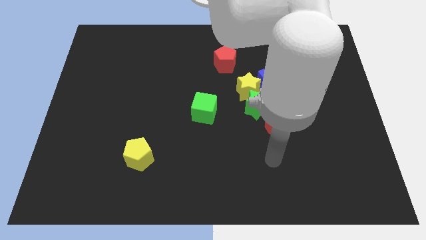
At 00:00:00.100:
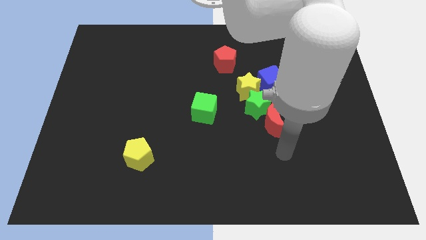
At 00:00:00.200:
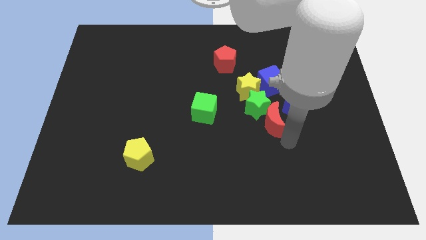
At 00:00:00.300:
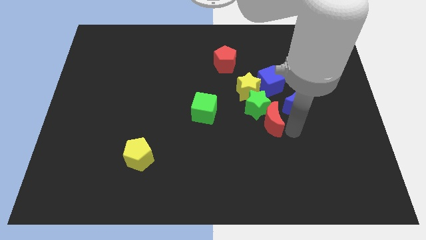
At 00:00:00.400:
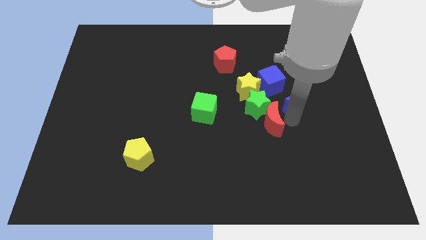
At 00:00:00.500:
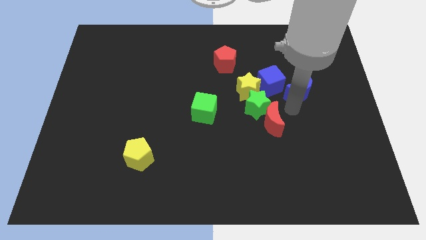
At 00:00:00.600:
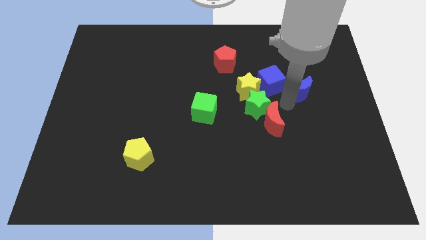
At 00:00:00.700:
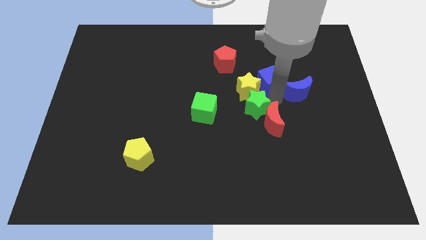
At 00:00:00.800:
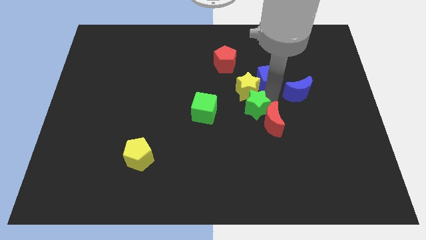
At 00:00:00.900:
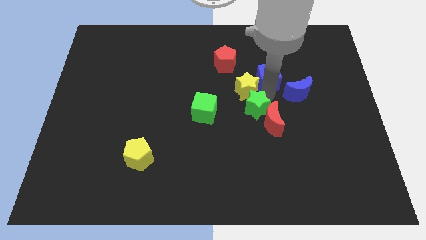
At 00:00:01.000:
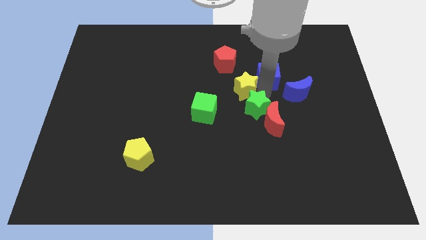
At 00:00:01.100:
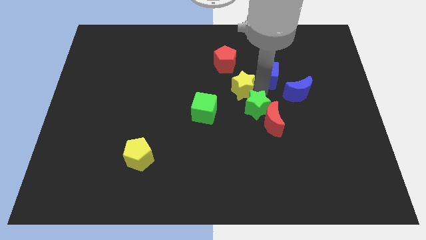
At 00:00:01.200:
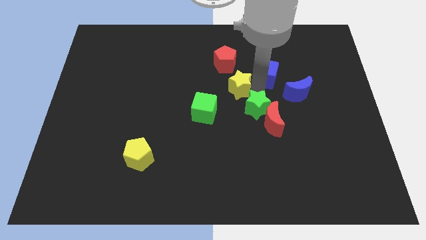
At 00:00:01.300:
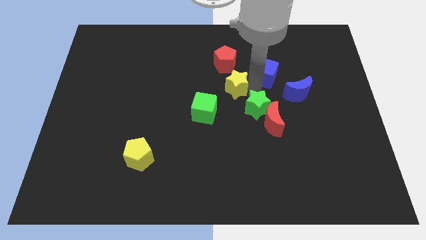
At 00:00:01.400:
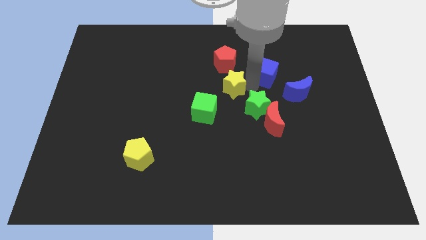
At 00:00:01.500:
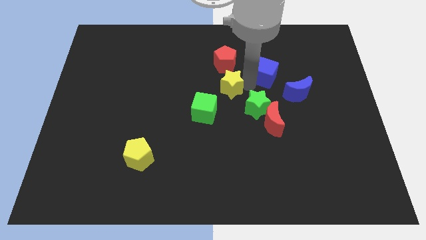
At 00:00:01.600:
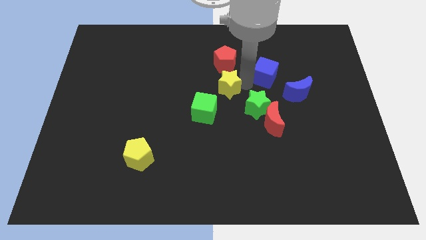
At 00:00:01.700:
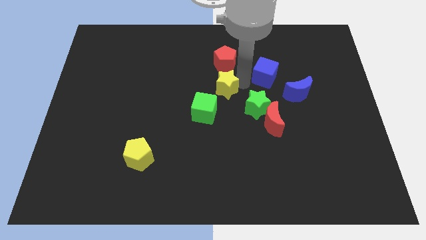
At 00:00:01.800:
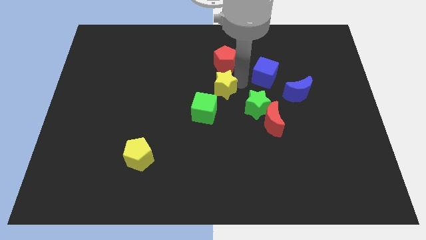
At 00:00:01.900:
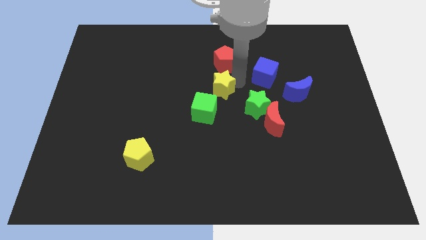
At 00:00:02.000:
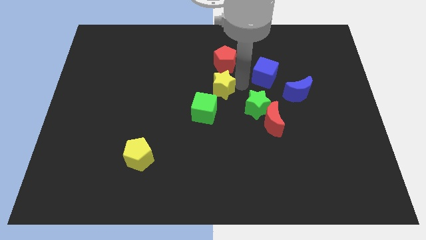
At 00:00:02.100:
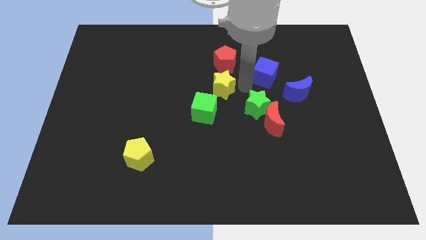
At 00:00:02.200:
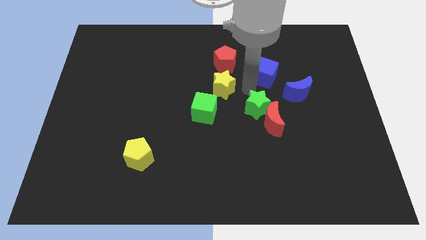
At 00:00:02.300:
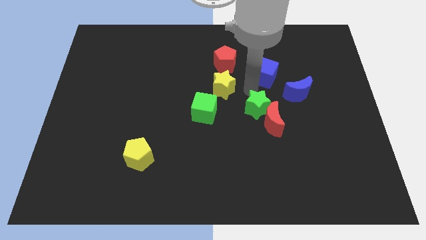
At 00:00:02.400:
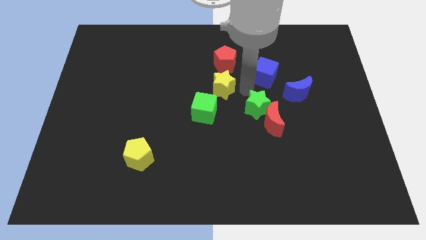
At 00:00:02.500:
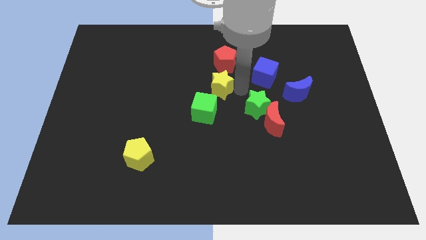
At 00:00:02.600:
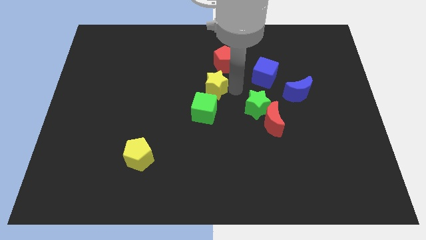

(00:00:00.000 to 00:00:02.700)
separate the yellow star from the green star and blue cube

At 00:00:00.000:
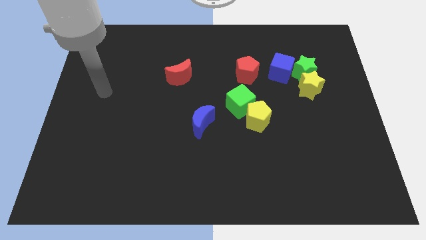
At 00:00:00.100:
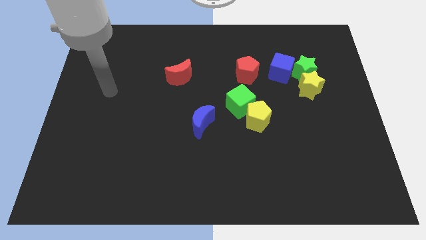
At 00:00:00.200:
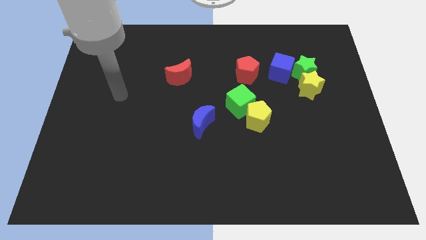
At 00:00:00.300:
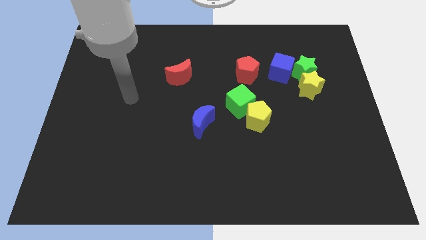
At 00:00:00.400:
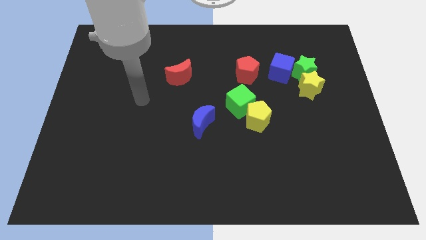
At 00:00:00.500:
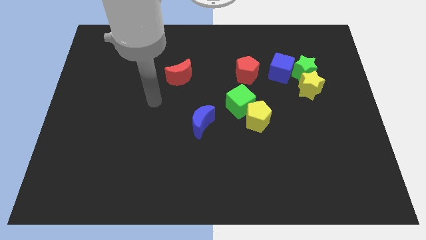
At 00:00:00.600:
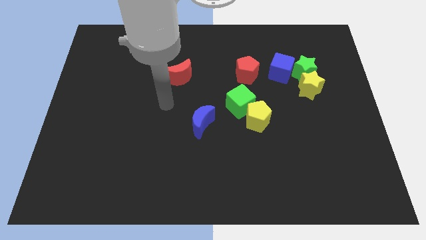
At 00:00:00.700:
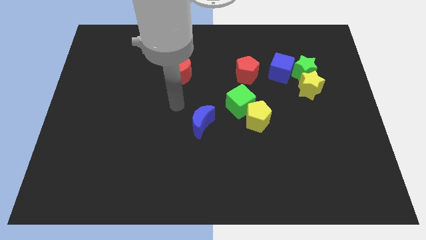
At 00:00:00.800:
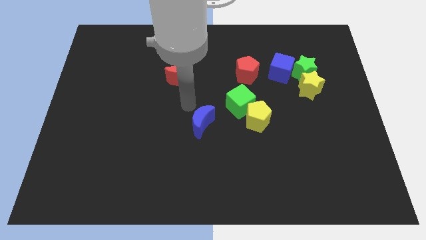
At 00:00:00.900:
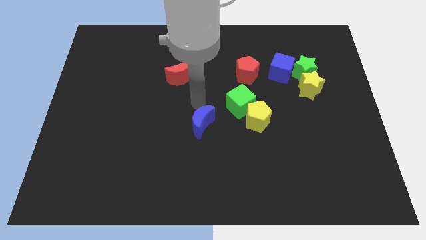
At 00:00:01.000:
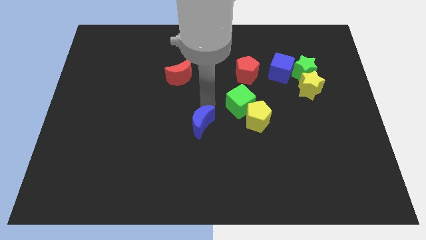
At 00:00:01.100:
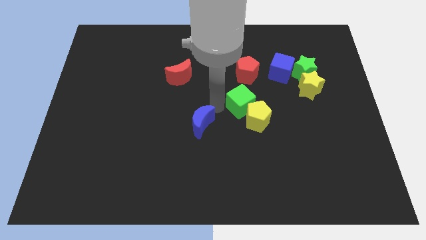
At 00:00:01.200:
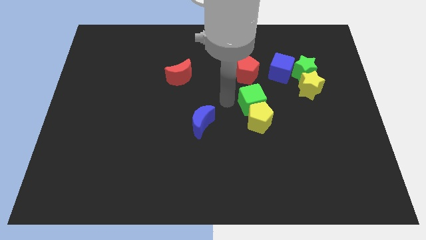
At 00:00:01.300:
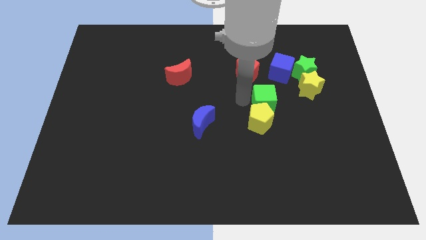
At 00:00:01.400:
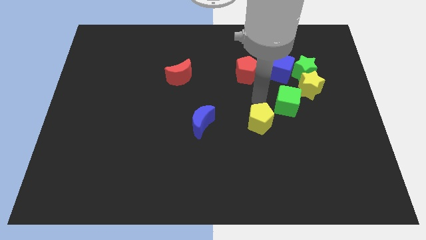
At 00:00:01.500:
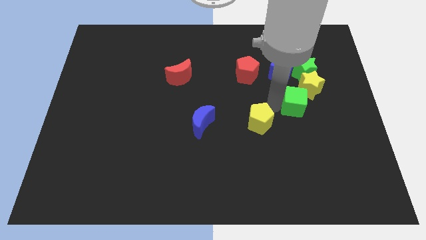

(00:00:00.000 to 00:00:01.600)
separate the yellow pentagon from the green cube

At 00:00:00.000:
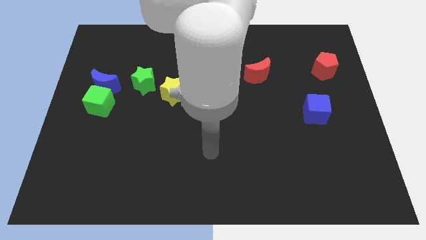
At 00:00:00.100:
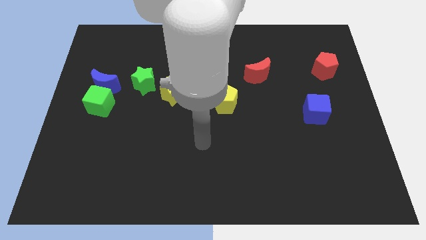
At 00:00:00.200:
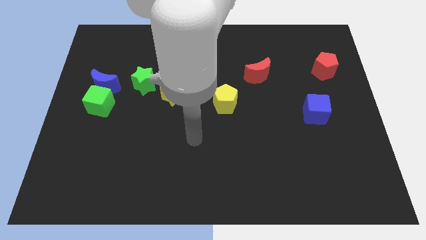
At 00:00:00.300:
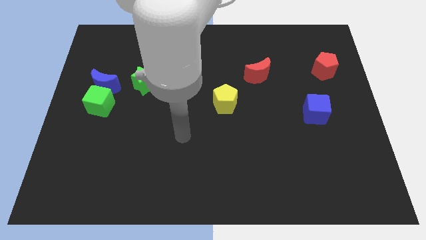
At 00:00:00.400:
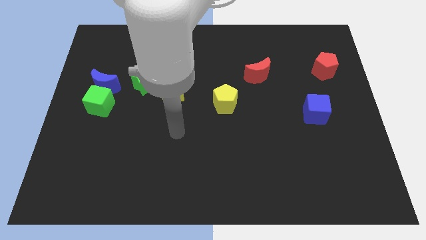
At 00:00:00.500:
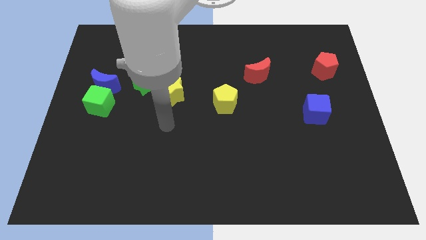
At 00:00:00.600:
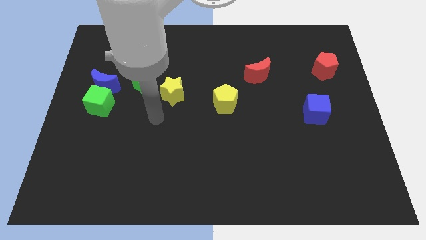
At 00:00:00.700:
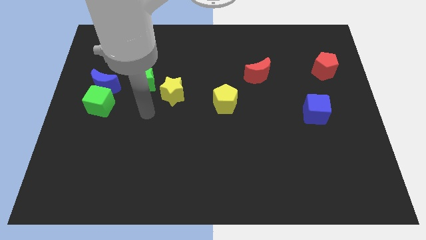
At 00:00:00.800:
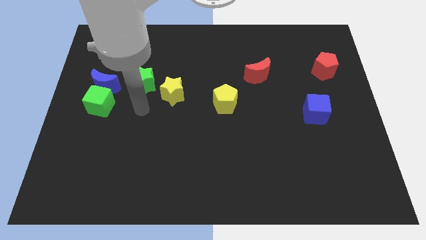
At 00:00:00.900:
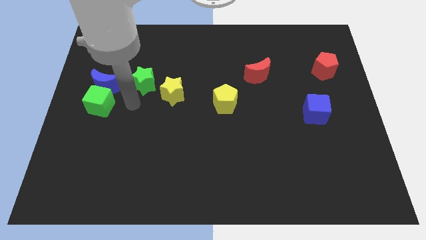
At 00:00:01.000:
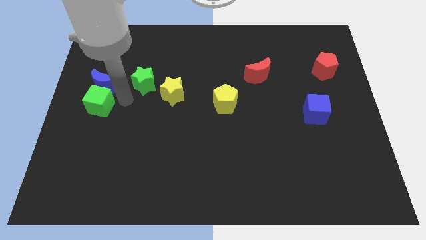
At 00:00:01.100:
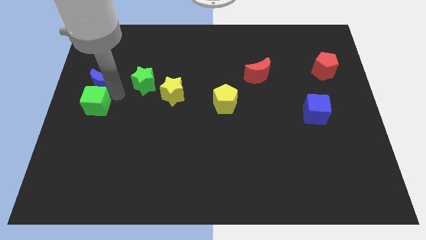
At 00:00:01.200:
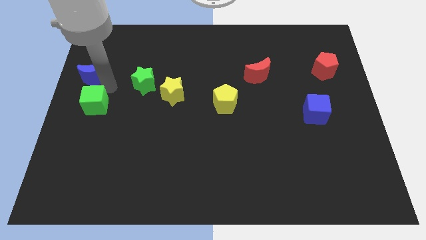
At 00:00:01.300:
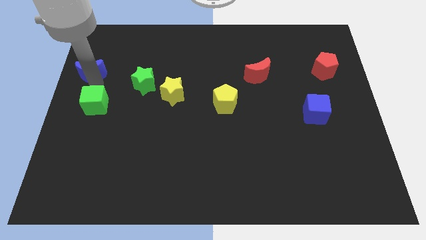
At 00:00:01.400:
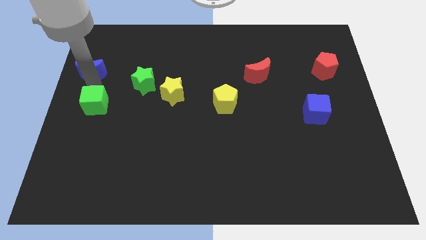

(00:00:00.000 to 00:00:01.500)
pull the green cube apart from the blue moon

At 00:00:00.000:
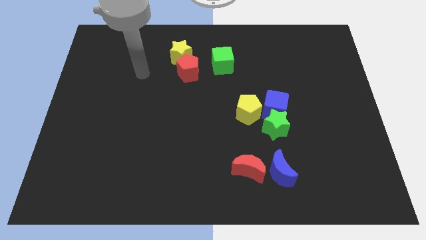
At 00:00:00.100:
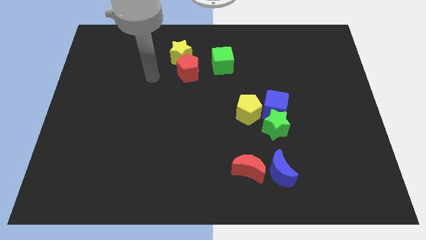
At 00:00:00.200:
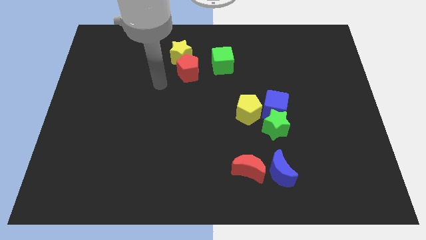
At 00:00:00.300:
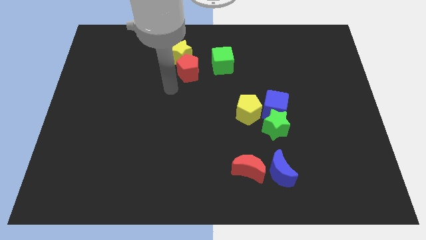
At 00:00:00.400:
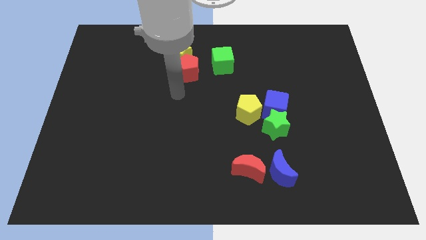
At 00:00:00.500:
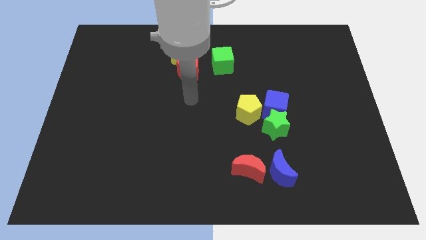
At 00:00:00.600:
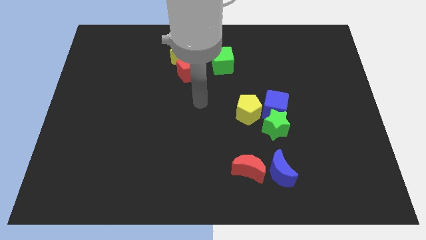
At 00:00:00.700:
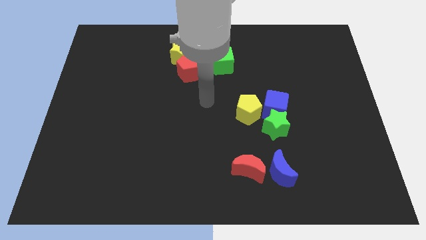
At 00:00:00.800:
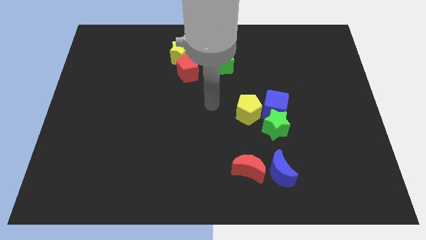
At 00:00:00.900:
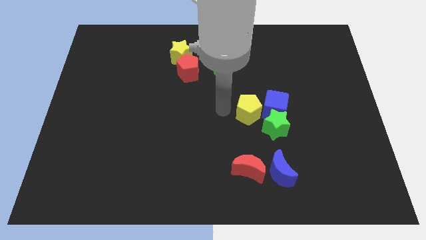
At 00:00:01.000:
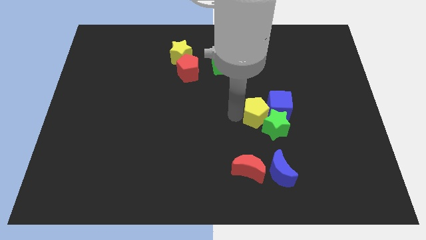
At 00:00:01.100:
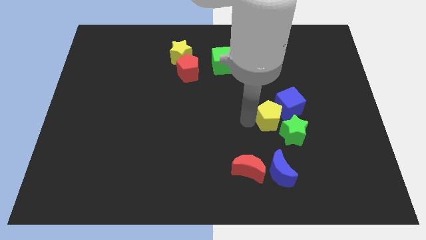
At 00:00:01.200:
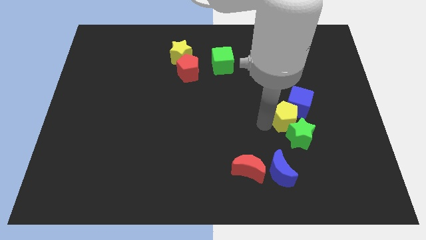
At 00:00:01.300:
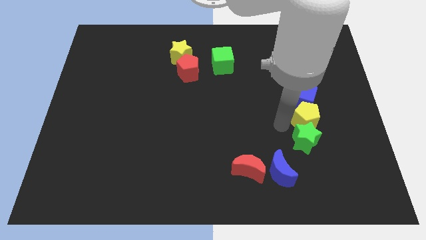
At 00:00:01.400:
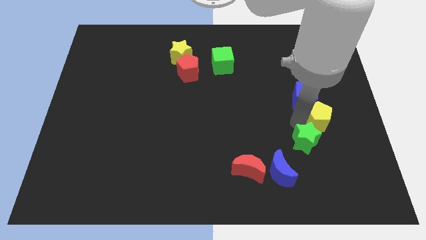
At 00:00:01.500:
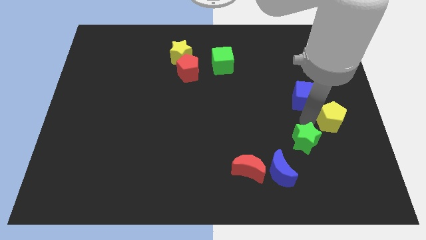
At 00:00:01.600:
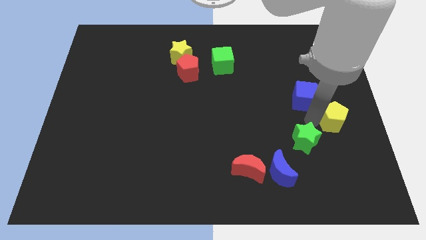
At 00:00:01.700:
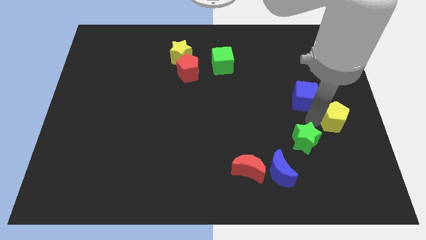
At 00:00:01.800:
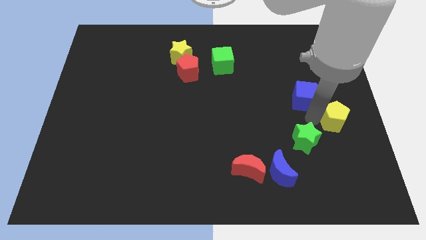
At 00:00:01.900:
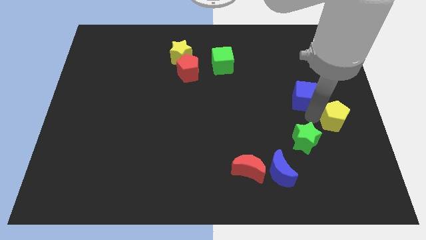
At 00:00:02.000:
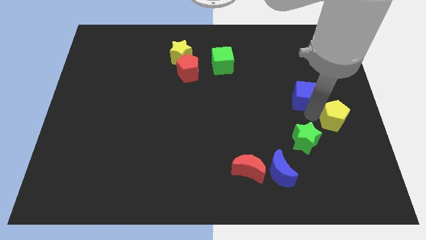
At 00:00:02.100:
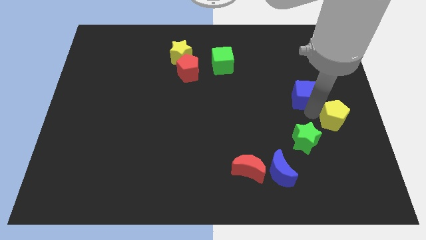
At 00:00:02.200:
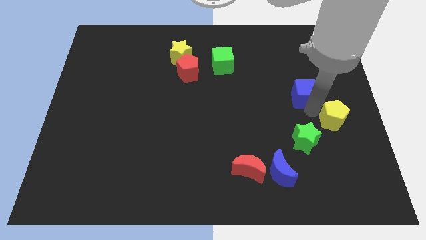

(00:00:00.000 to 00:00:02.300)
pull the blue cube apart from the green star and yellow pentagon

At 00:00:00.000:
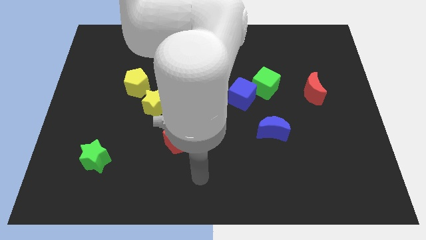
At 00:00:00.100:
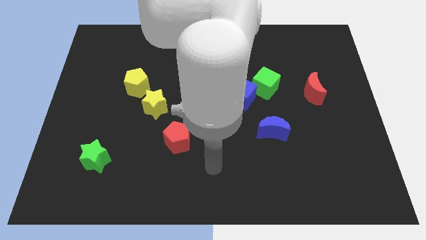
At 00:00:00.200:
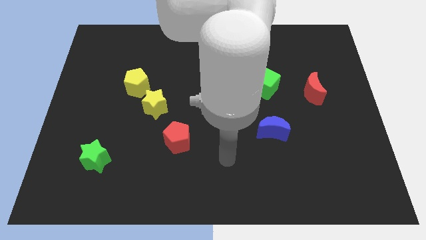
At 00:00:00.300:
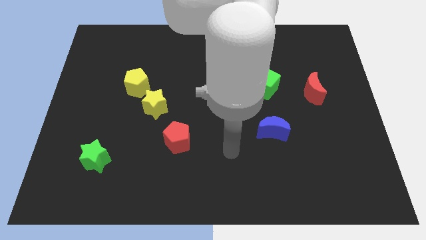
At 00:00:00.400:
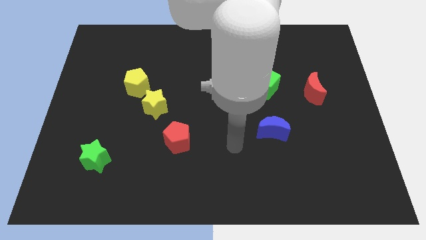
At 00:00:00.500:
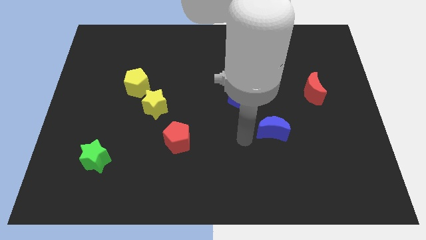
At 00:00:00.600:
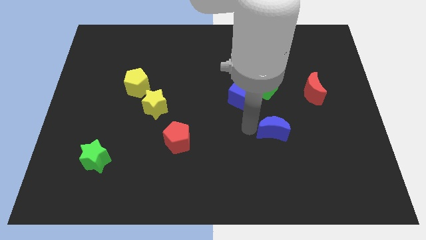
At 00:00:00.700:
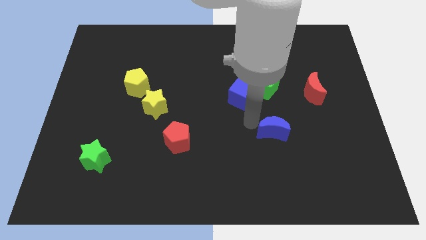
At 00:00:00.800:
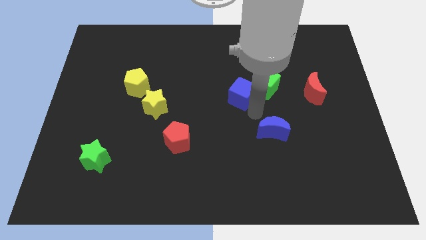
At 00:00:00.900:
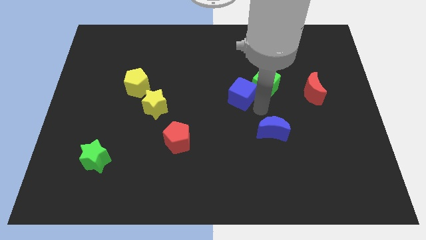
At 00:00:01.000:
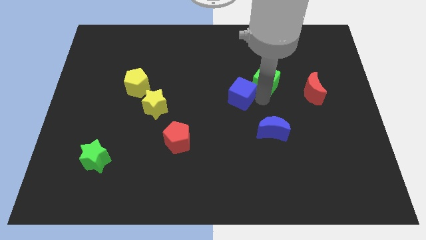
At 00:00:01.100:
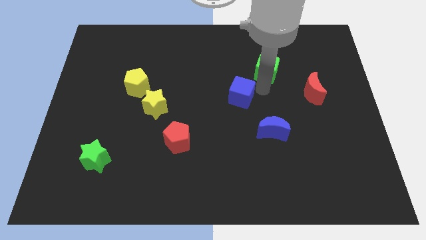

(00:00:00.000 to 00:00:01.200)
pull the blue cube apart from the green cube
